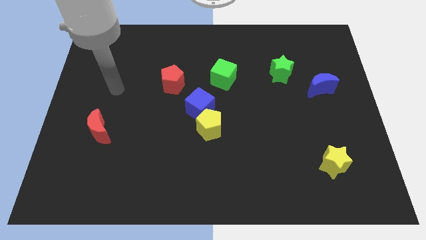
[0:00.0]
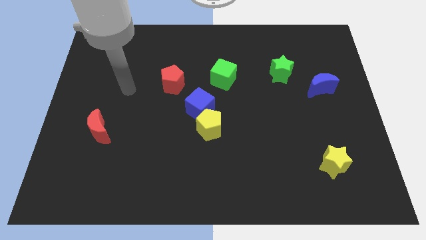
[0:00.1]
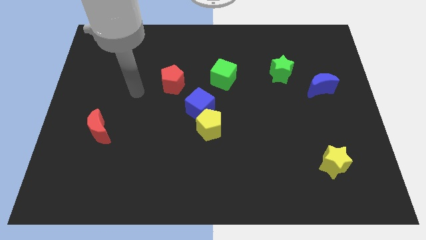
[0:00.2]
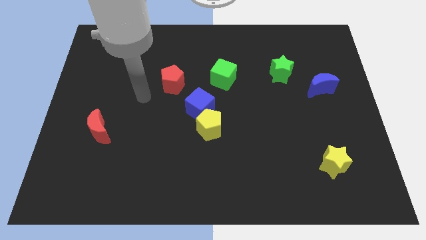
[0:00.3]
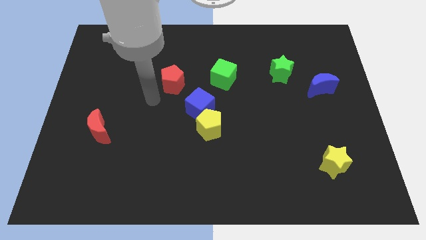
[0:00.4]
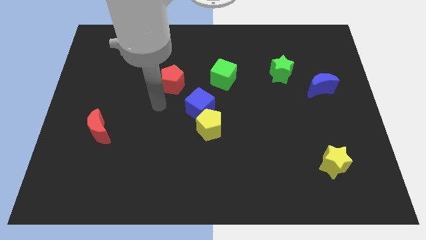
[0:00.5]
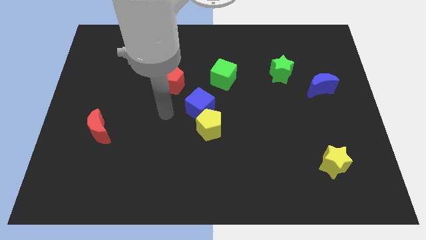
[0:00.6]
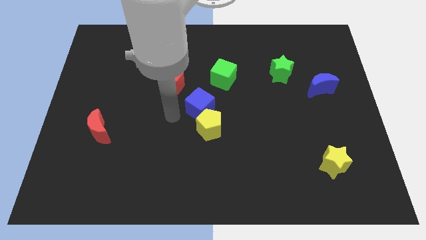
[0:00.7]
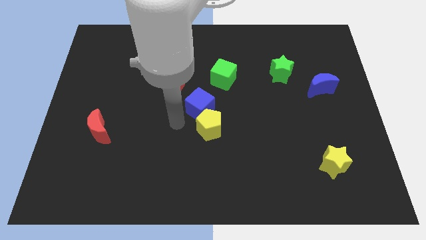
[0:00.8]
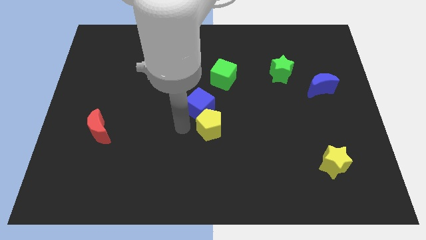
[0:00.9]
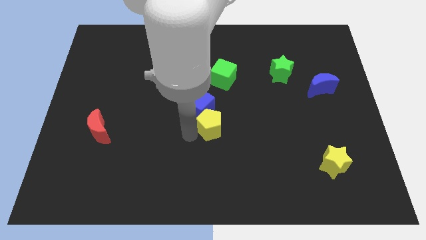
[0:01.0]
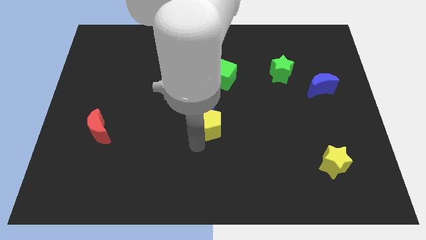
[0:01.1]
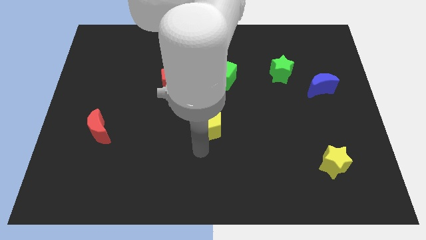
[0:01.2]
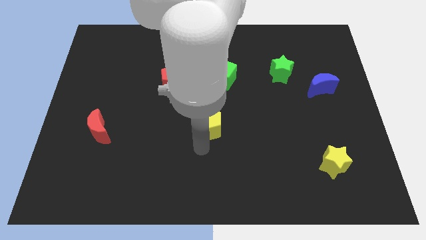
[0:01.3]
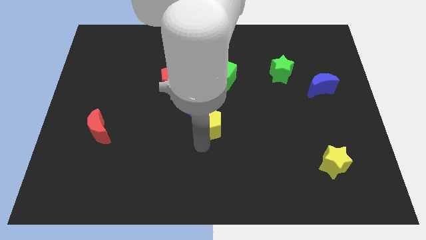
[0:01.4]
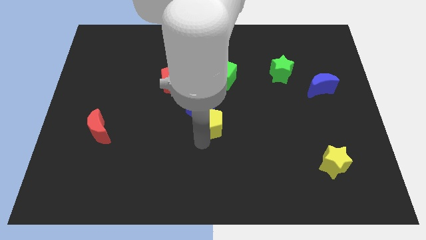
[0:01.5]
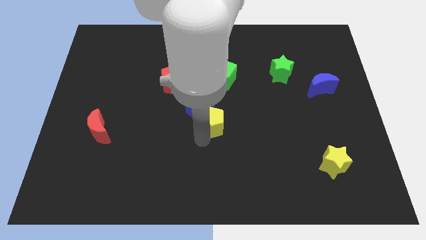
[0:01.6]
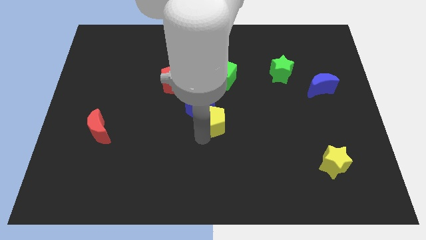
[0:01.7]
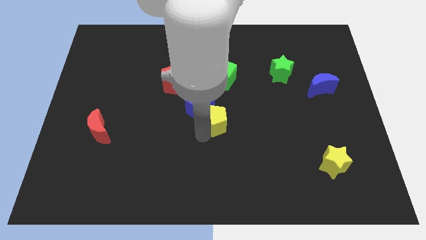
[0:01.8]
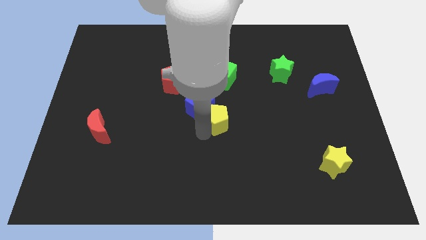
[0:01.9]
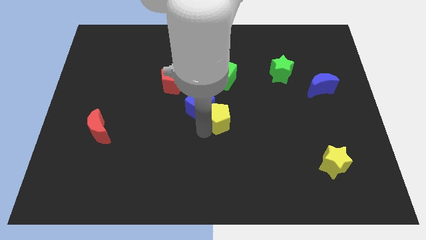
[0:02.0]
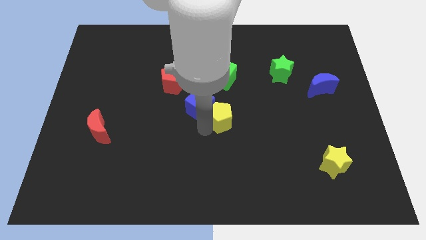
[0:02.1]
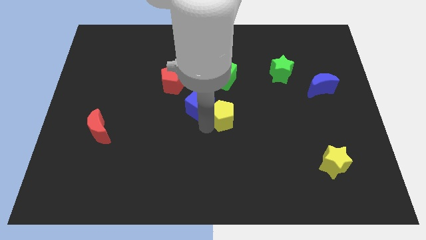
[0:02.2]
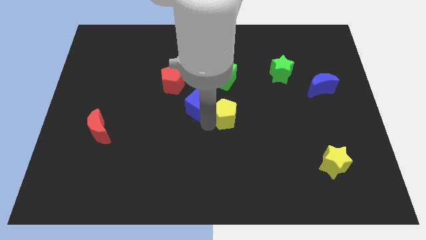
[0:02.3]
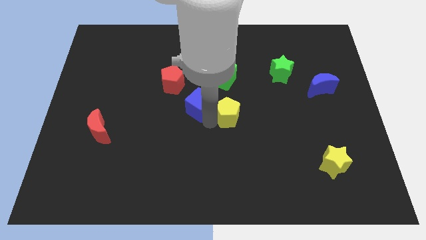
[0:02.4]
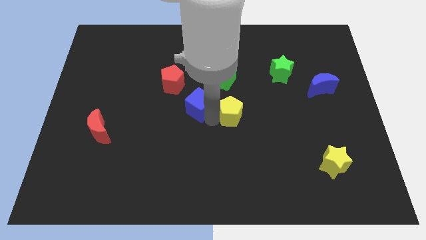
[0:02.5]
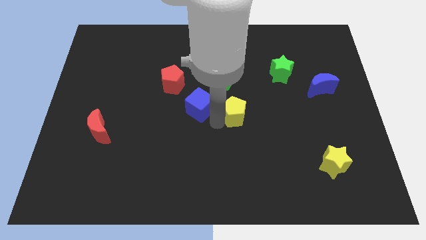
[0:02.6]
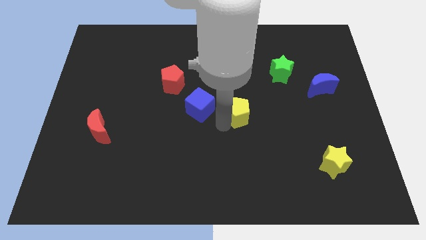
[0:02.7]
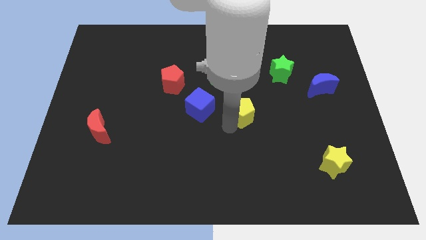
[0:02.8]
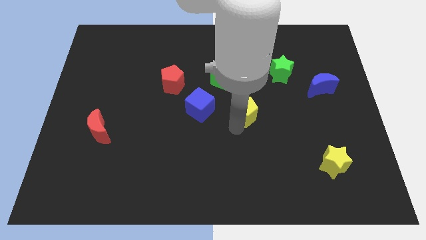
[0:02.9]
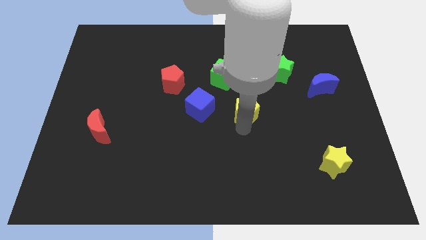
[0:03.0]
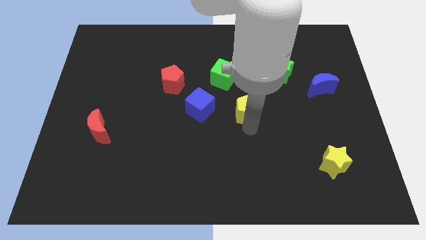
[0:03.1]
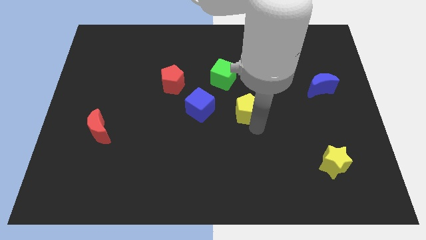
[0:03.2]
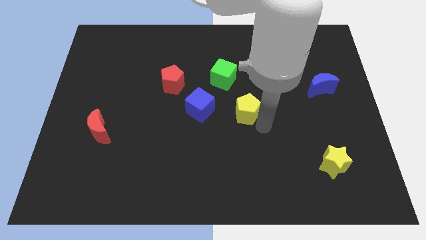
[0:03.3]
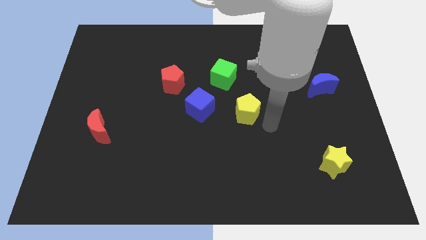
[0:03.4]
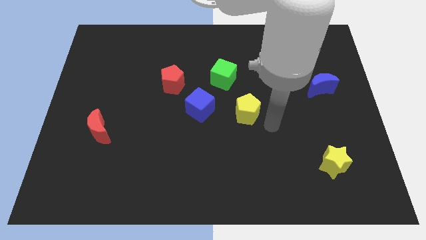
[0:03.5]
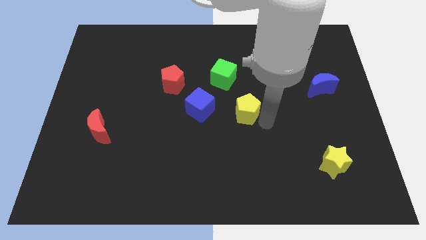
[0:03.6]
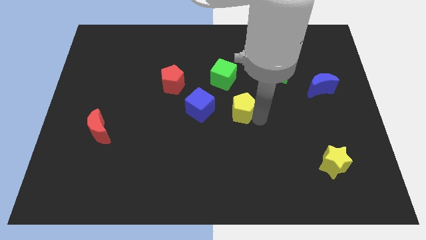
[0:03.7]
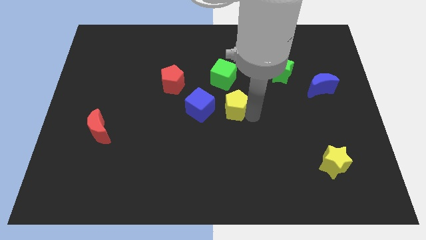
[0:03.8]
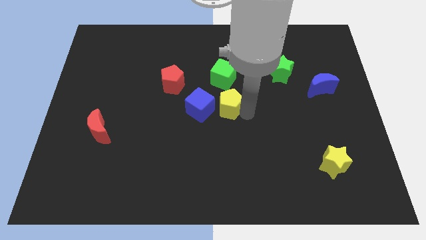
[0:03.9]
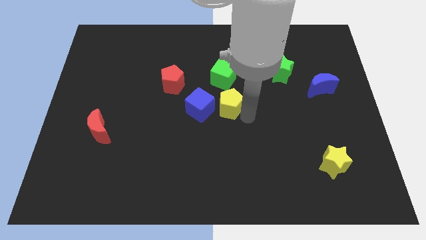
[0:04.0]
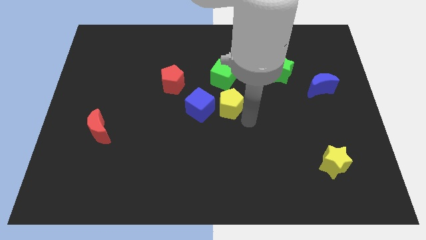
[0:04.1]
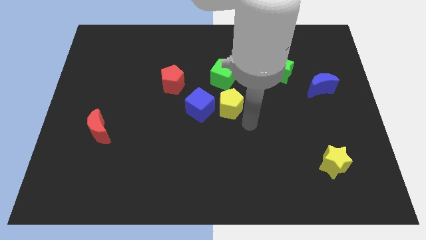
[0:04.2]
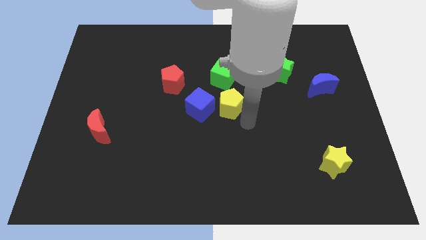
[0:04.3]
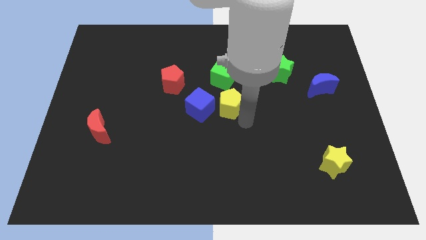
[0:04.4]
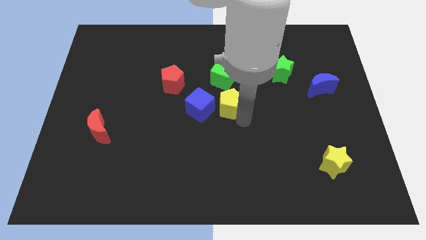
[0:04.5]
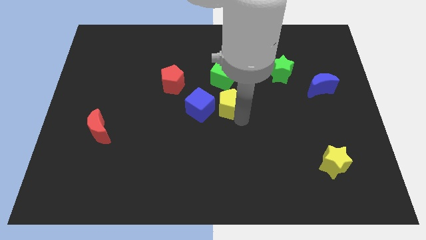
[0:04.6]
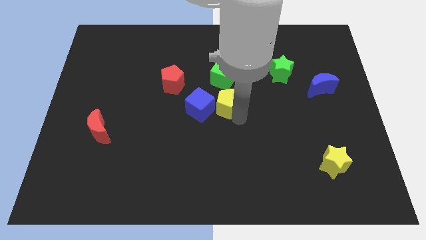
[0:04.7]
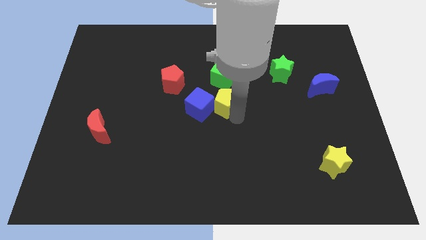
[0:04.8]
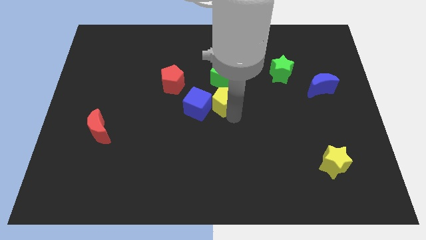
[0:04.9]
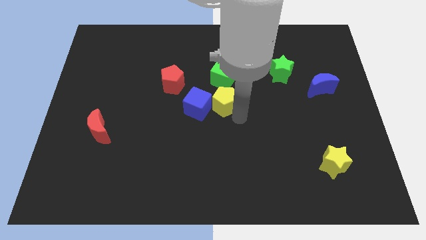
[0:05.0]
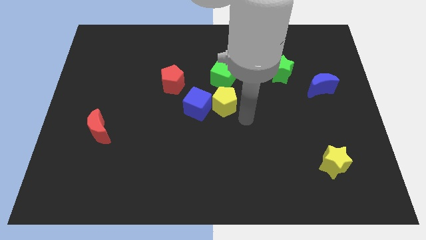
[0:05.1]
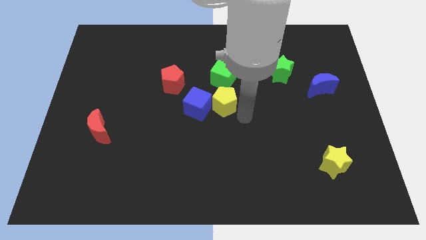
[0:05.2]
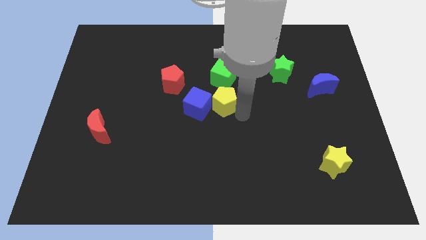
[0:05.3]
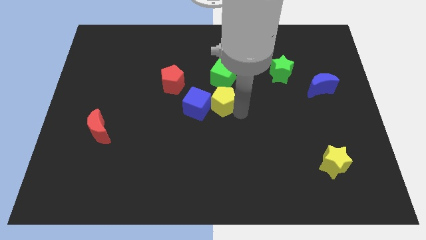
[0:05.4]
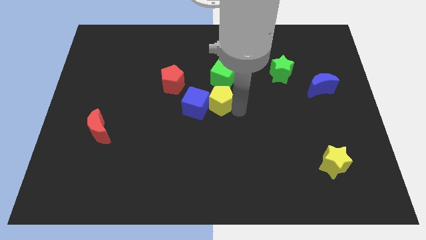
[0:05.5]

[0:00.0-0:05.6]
slightly slide the yellow pentagon upwards

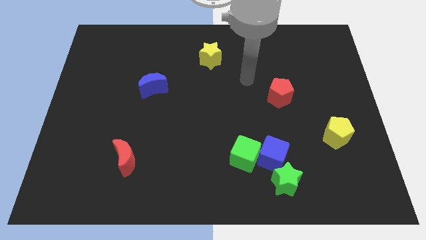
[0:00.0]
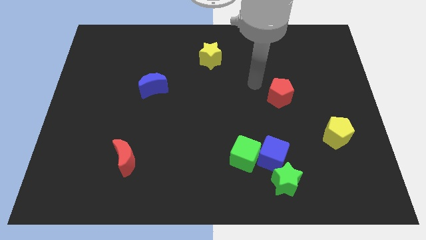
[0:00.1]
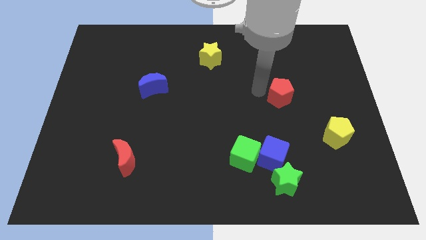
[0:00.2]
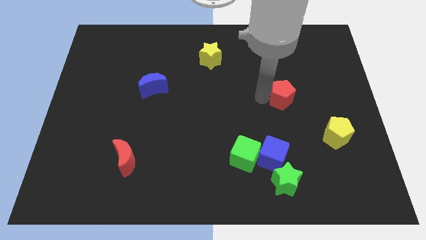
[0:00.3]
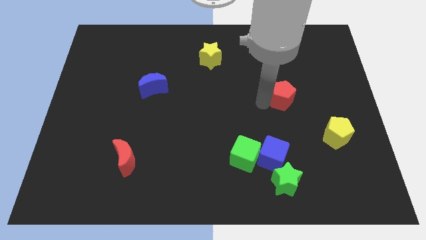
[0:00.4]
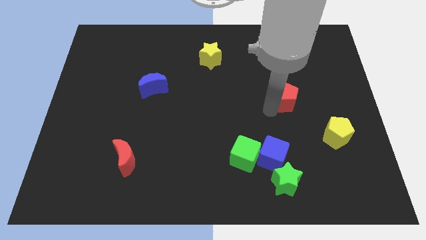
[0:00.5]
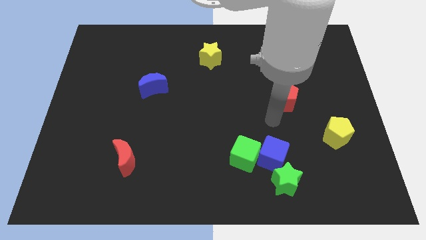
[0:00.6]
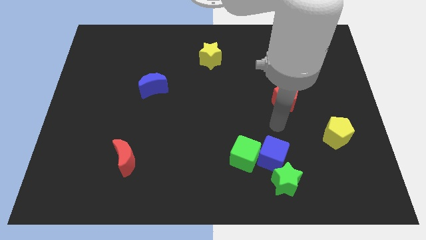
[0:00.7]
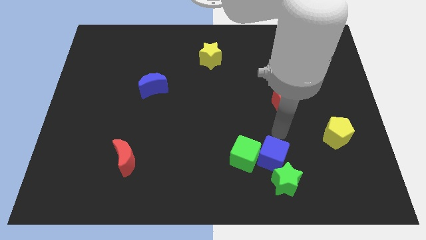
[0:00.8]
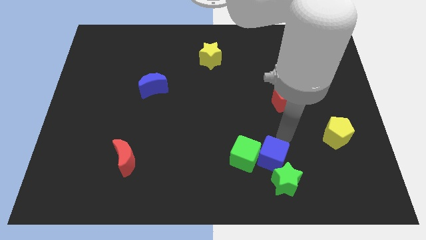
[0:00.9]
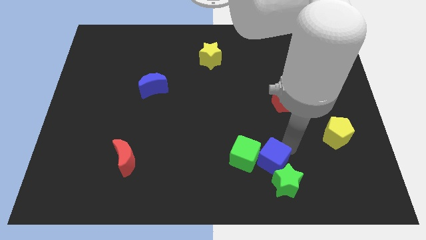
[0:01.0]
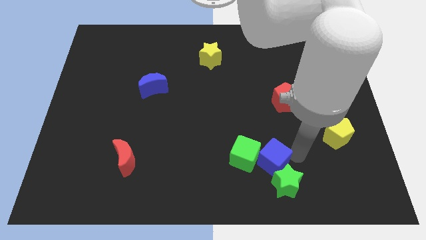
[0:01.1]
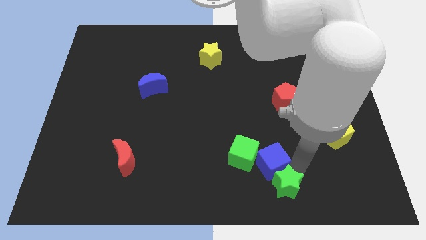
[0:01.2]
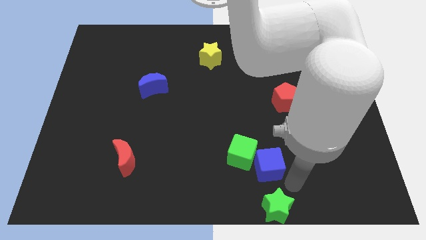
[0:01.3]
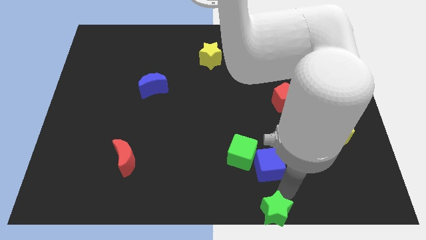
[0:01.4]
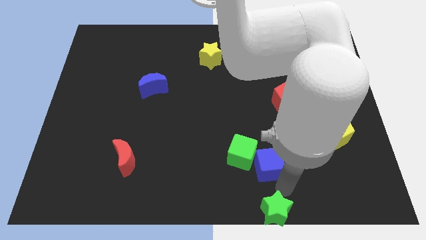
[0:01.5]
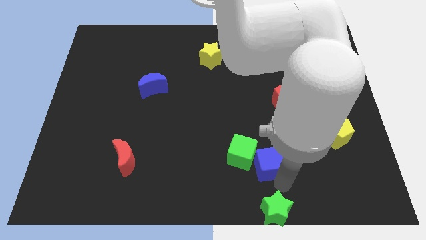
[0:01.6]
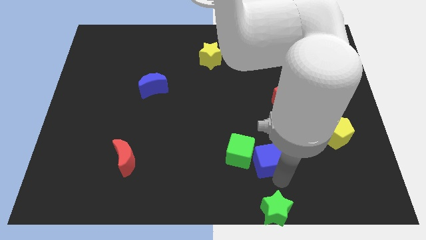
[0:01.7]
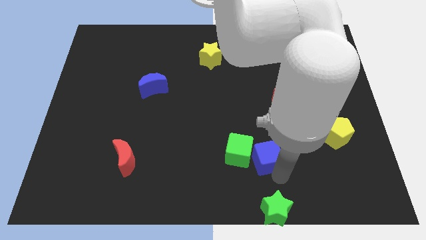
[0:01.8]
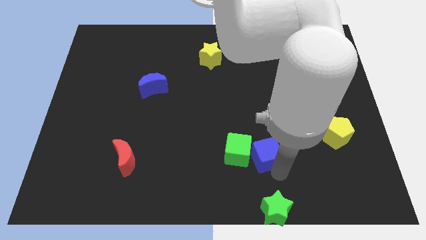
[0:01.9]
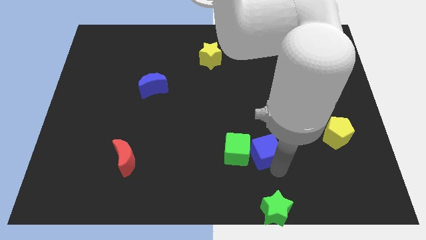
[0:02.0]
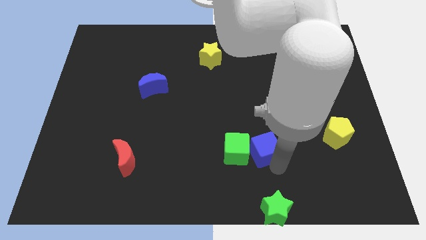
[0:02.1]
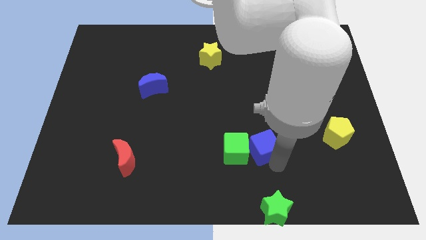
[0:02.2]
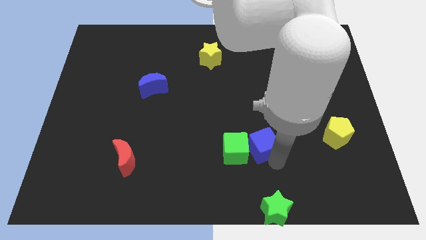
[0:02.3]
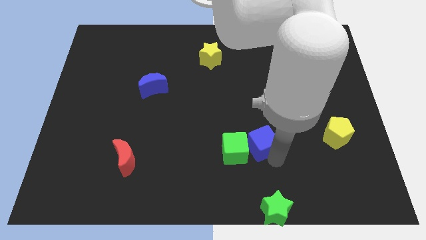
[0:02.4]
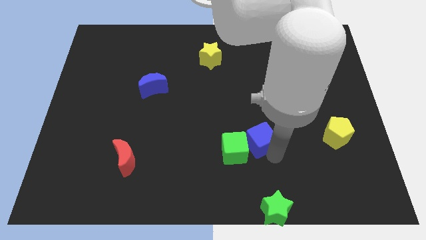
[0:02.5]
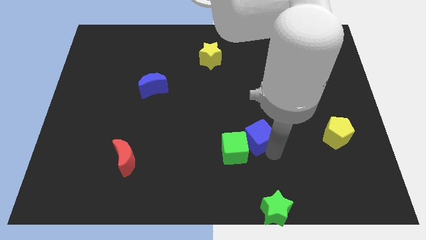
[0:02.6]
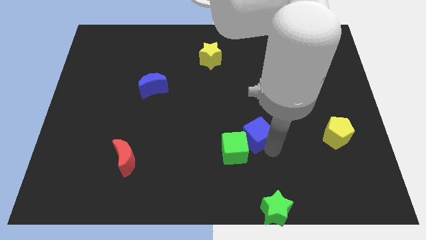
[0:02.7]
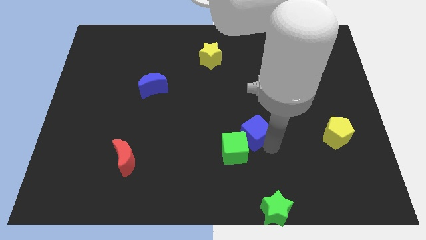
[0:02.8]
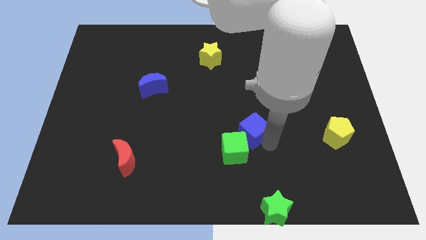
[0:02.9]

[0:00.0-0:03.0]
move the blue cube up and then to the left a little
